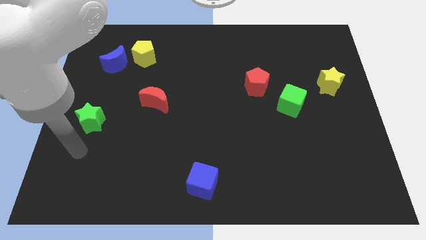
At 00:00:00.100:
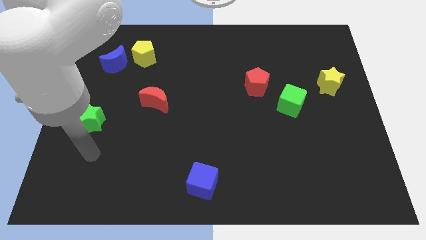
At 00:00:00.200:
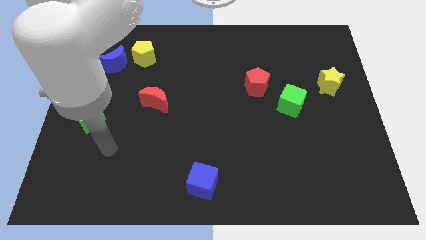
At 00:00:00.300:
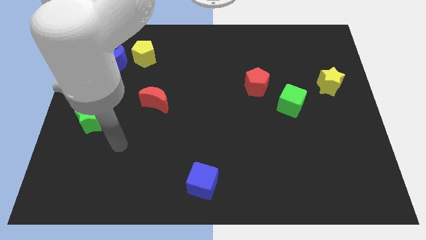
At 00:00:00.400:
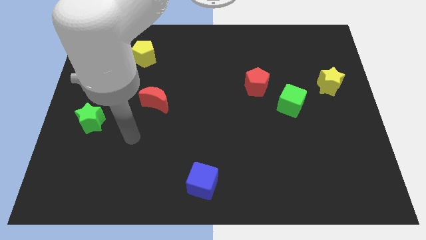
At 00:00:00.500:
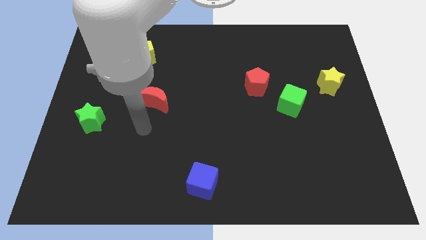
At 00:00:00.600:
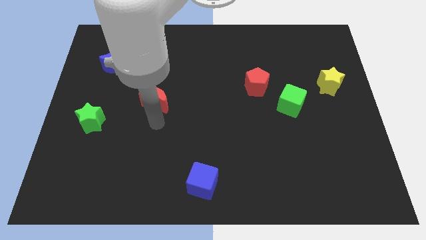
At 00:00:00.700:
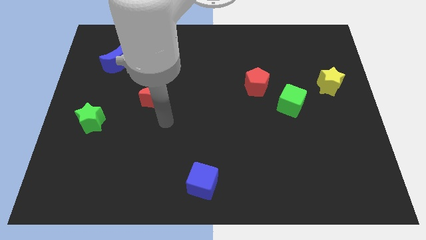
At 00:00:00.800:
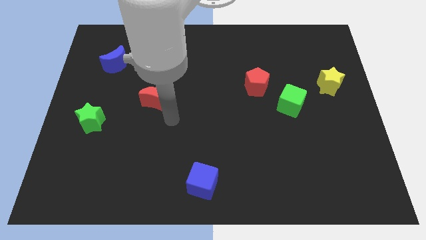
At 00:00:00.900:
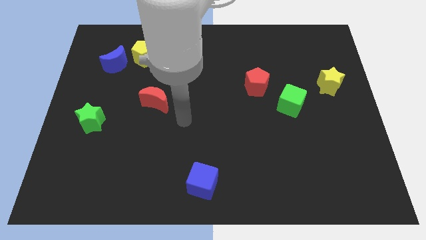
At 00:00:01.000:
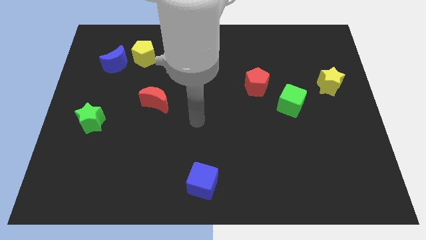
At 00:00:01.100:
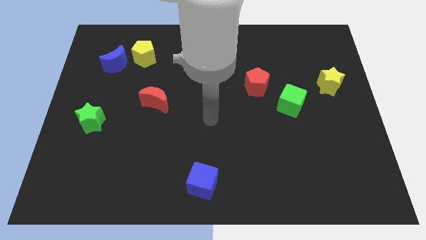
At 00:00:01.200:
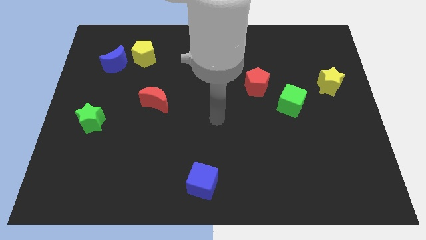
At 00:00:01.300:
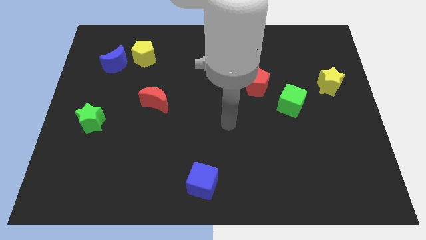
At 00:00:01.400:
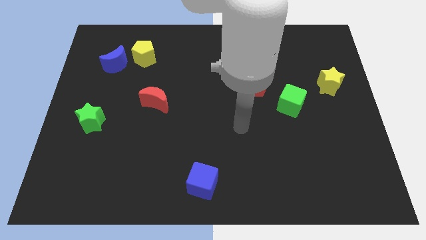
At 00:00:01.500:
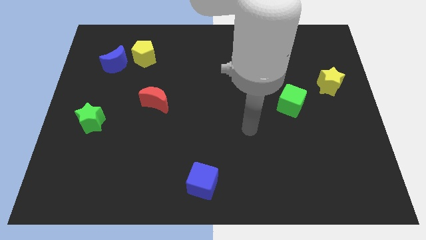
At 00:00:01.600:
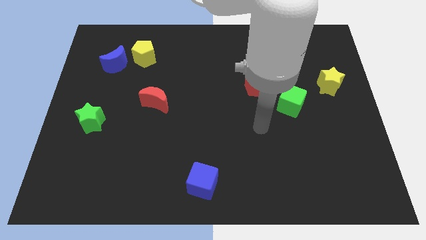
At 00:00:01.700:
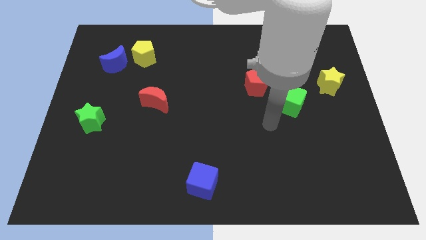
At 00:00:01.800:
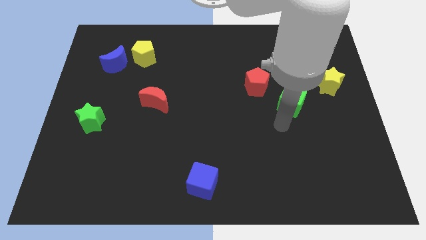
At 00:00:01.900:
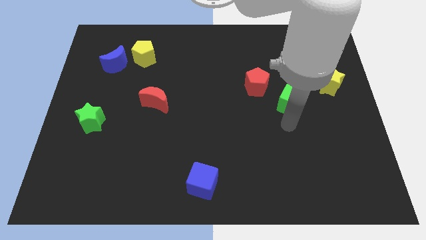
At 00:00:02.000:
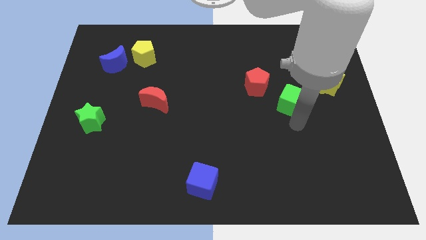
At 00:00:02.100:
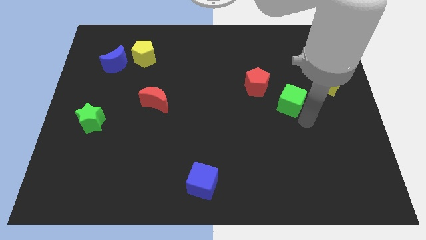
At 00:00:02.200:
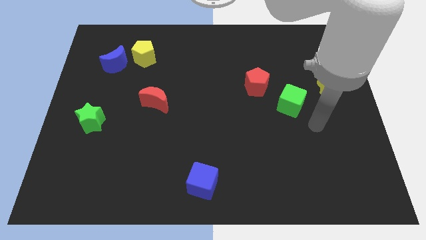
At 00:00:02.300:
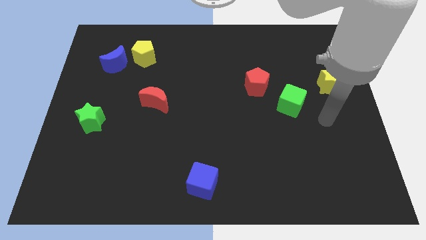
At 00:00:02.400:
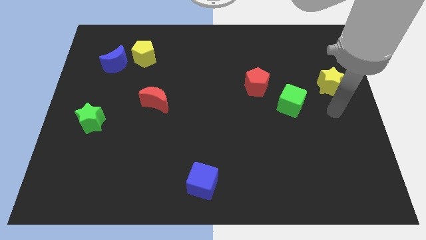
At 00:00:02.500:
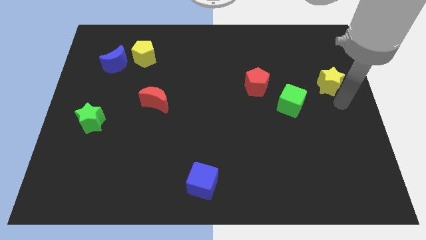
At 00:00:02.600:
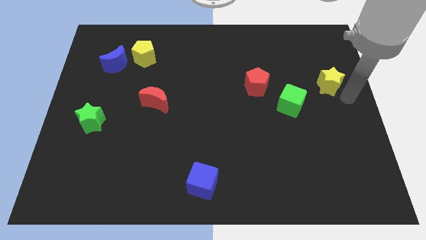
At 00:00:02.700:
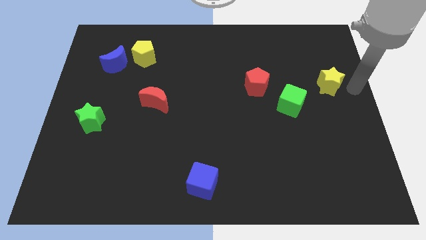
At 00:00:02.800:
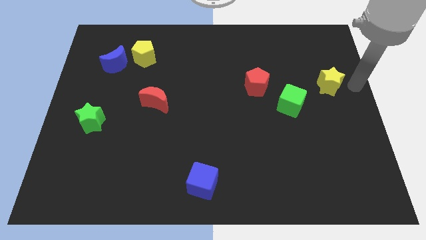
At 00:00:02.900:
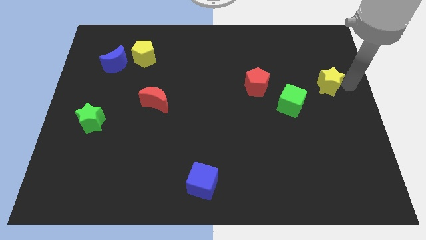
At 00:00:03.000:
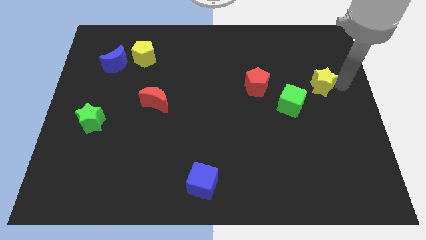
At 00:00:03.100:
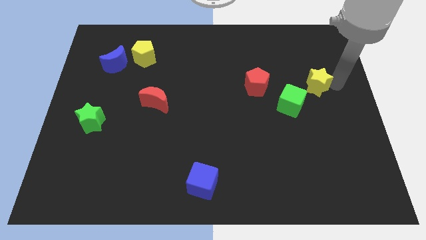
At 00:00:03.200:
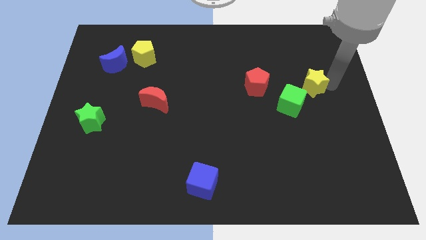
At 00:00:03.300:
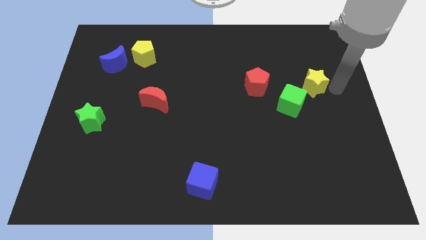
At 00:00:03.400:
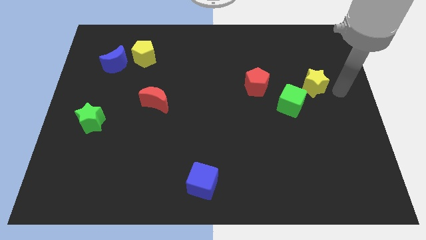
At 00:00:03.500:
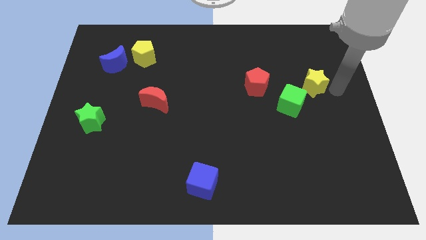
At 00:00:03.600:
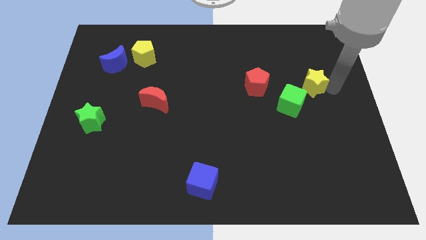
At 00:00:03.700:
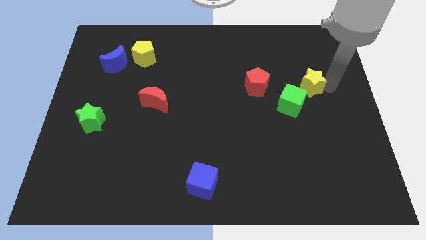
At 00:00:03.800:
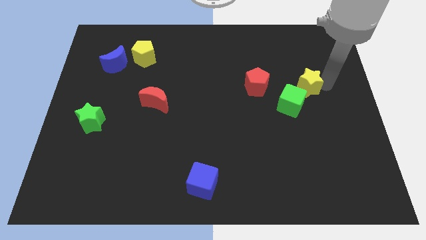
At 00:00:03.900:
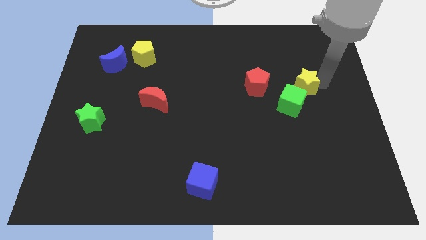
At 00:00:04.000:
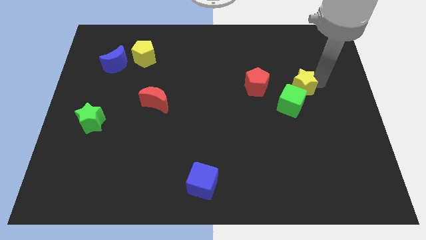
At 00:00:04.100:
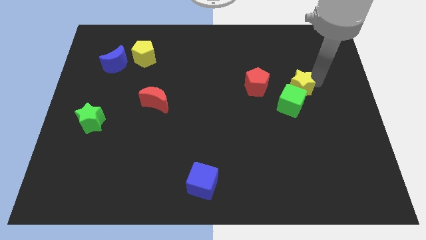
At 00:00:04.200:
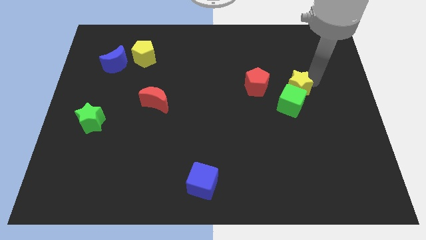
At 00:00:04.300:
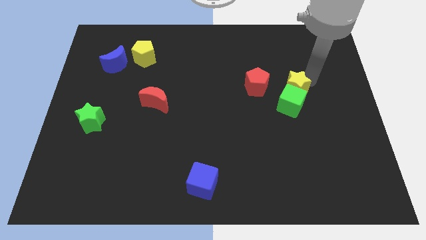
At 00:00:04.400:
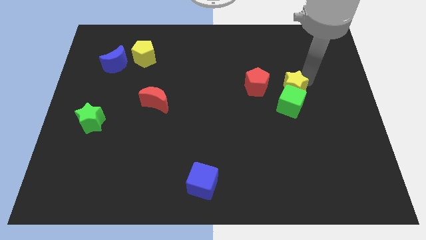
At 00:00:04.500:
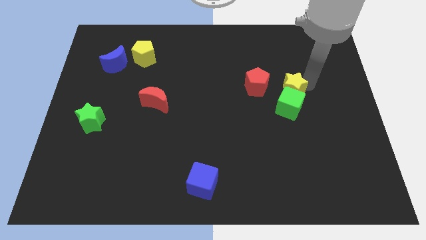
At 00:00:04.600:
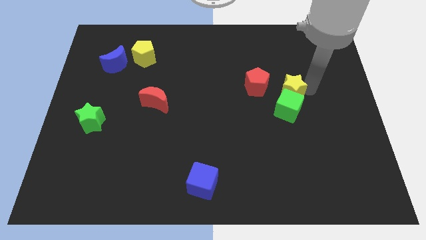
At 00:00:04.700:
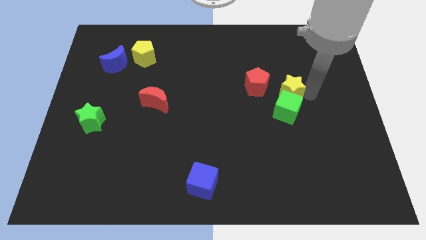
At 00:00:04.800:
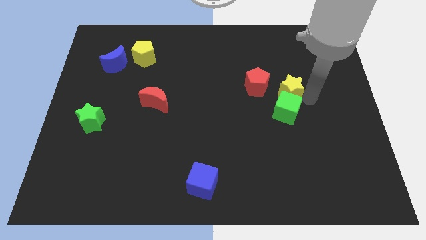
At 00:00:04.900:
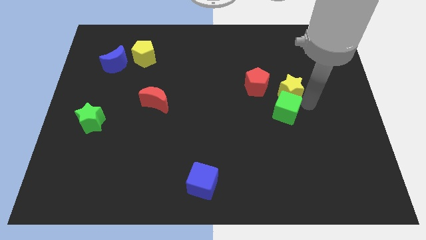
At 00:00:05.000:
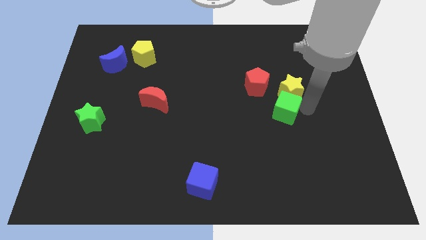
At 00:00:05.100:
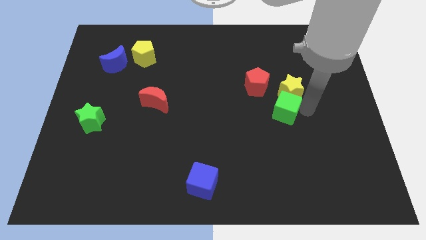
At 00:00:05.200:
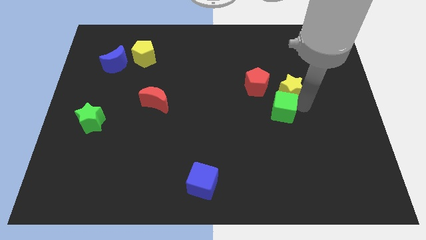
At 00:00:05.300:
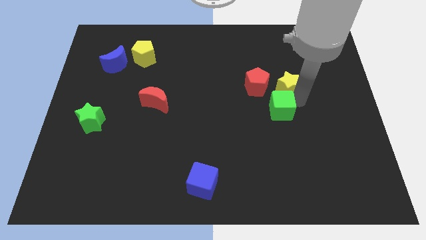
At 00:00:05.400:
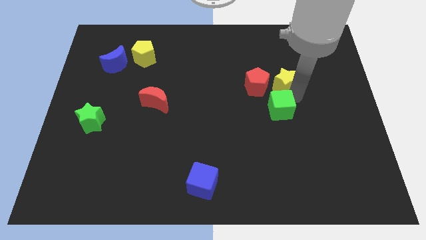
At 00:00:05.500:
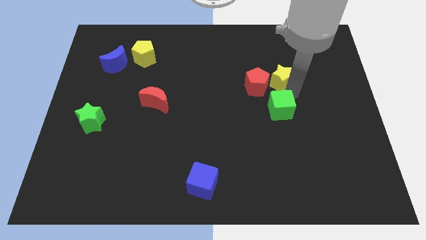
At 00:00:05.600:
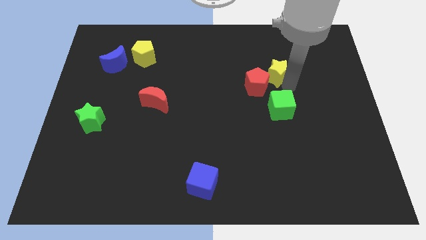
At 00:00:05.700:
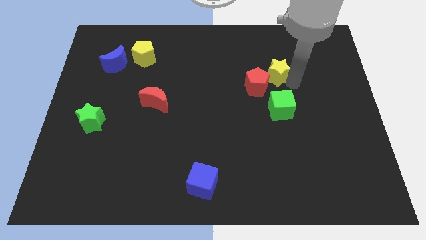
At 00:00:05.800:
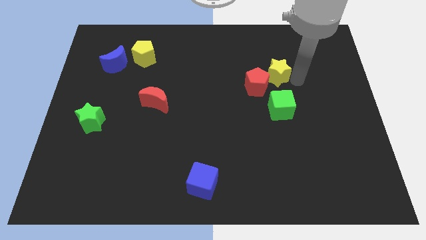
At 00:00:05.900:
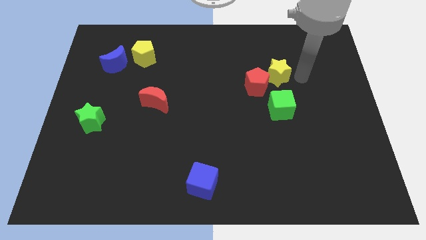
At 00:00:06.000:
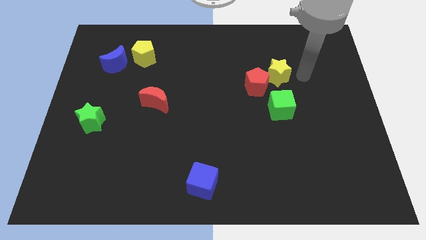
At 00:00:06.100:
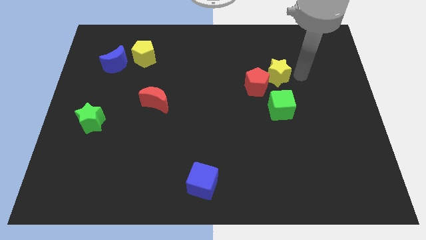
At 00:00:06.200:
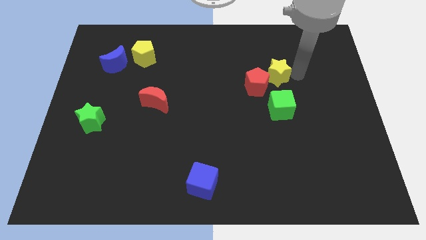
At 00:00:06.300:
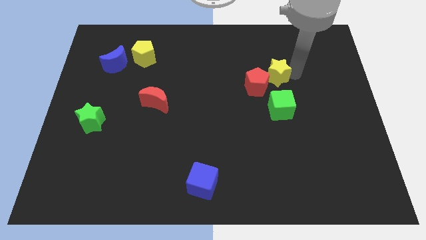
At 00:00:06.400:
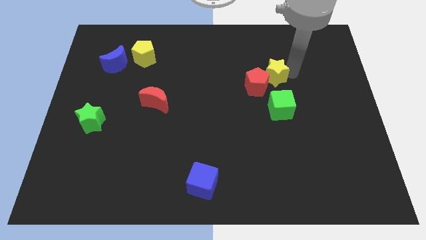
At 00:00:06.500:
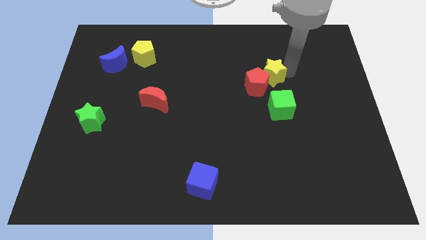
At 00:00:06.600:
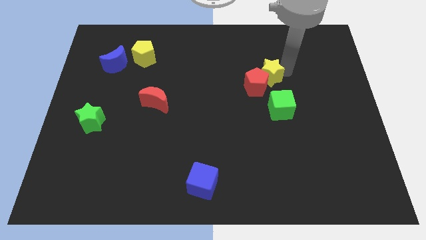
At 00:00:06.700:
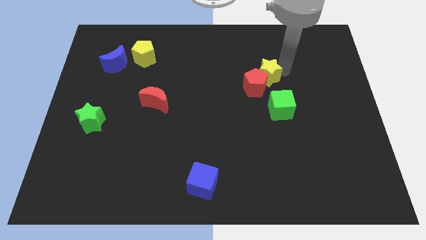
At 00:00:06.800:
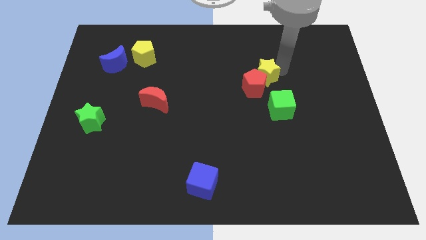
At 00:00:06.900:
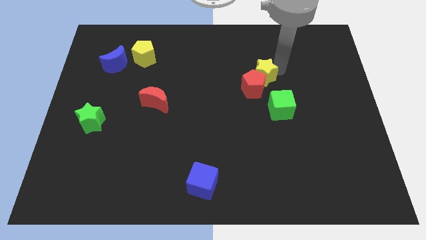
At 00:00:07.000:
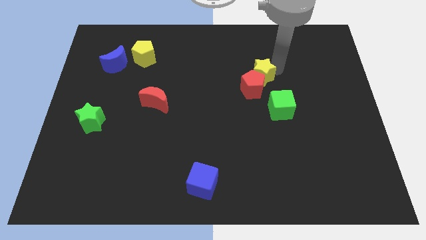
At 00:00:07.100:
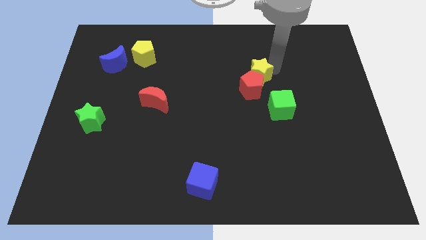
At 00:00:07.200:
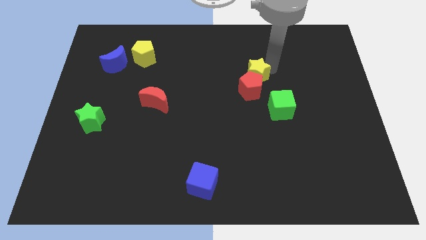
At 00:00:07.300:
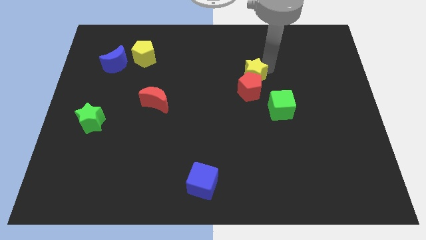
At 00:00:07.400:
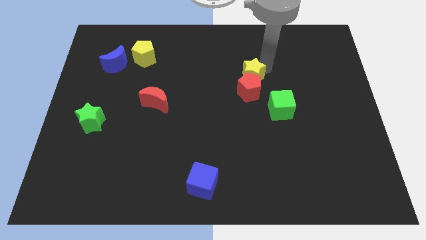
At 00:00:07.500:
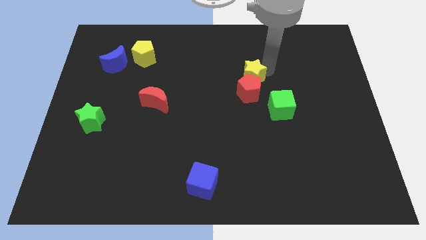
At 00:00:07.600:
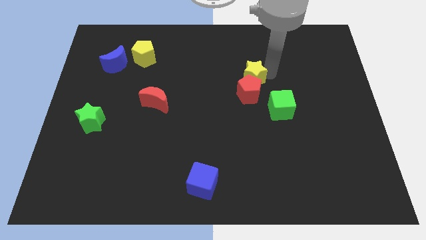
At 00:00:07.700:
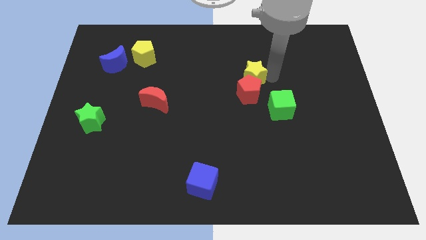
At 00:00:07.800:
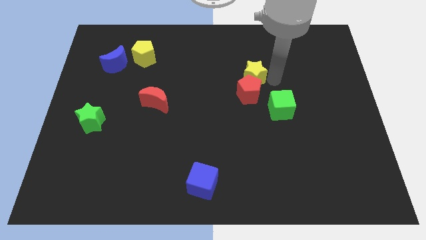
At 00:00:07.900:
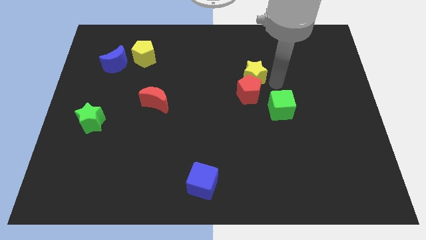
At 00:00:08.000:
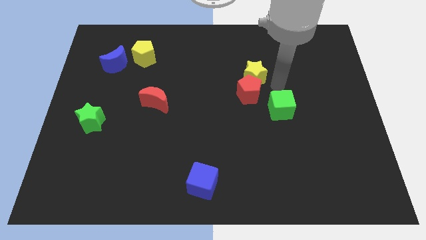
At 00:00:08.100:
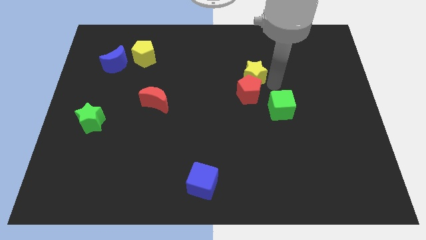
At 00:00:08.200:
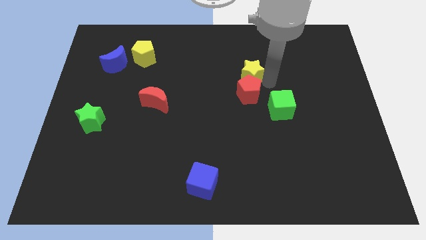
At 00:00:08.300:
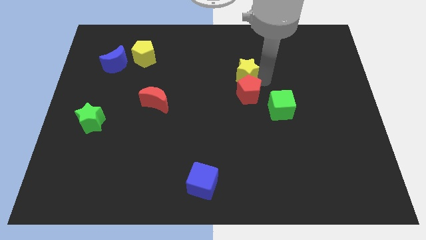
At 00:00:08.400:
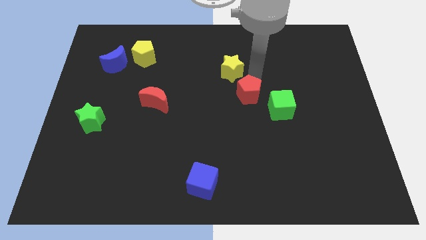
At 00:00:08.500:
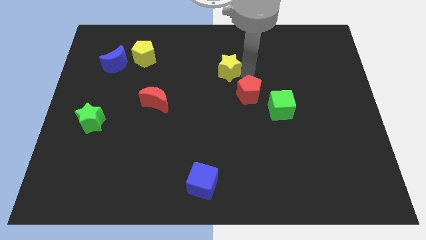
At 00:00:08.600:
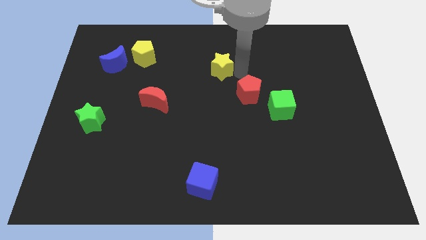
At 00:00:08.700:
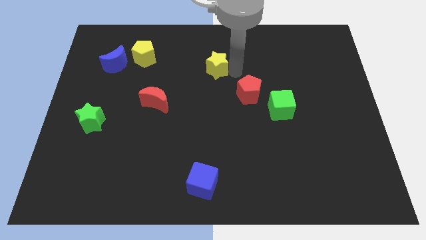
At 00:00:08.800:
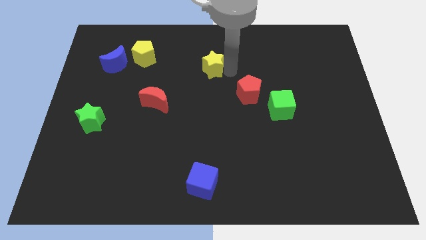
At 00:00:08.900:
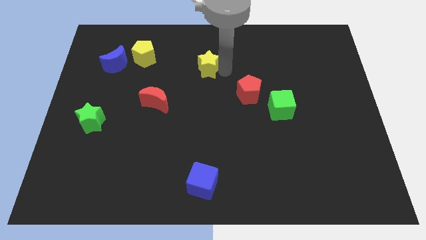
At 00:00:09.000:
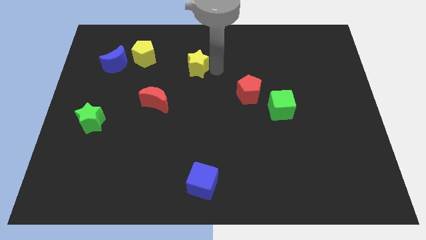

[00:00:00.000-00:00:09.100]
slide the yellow star to the right of the yellow pentagon
